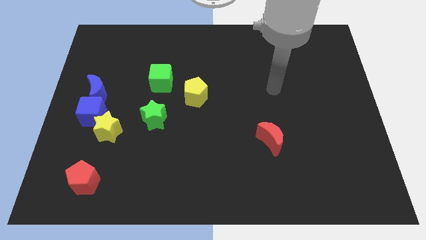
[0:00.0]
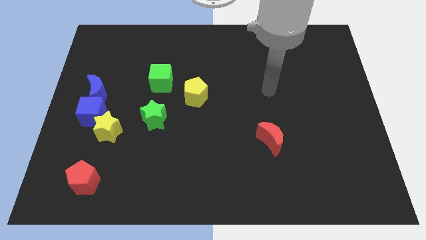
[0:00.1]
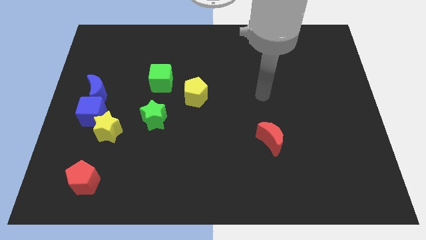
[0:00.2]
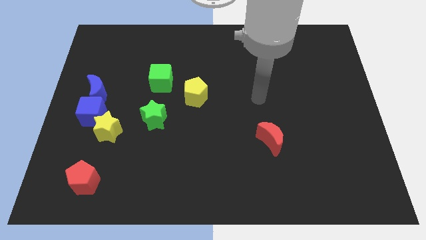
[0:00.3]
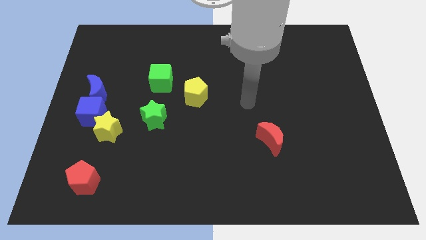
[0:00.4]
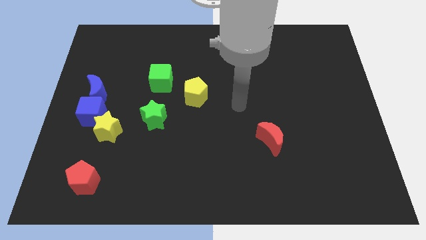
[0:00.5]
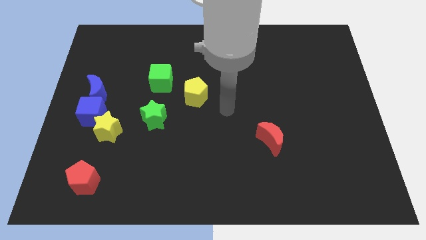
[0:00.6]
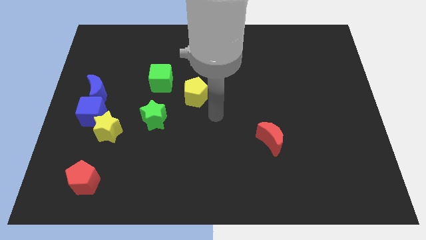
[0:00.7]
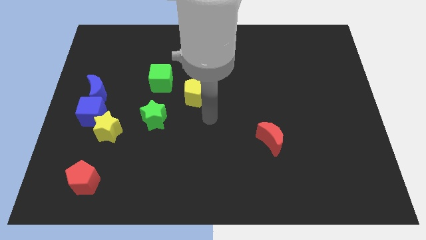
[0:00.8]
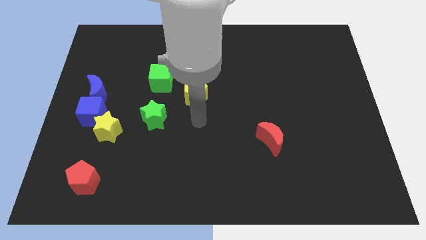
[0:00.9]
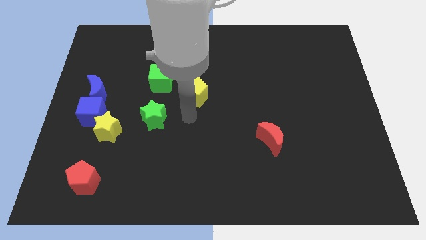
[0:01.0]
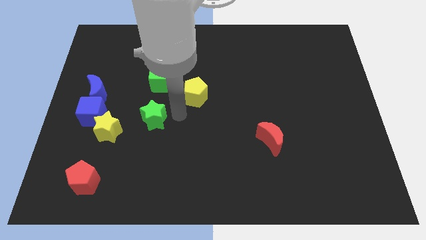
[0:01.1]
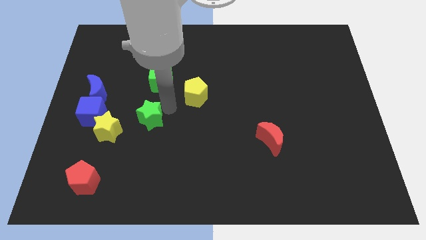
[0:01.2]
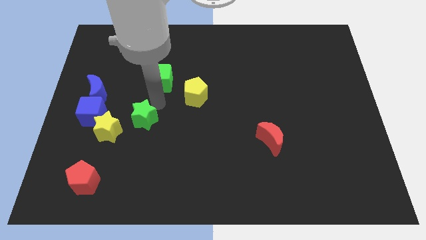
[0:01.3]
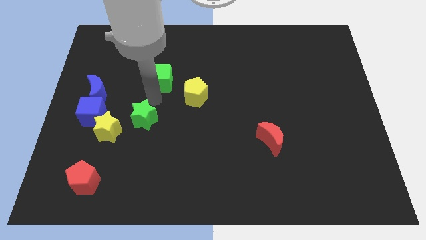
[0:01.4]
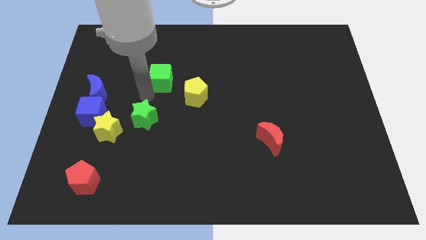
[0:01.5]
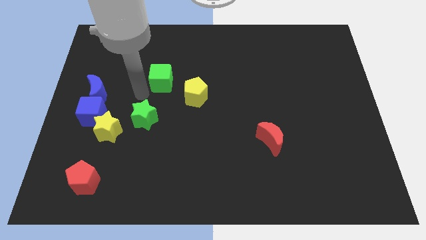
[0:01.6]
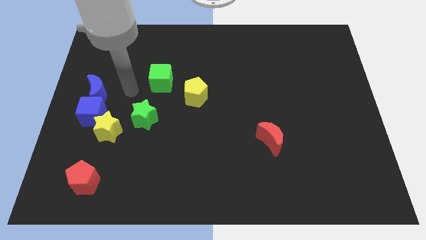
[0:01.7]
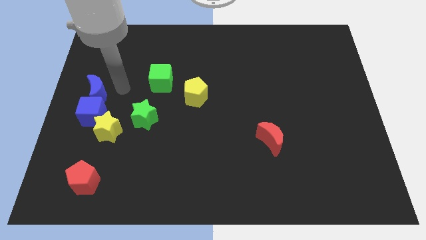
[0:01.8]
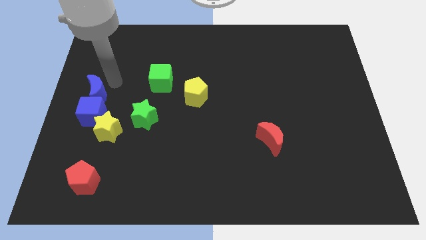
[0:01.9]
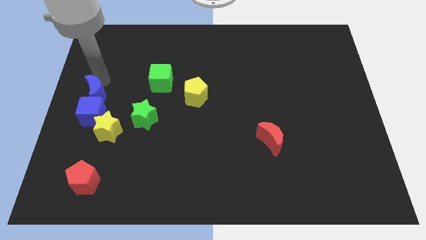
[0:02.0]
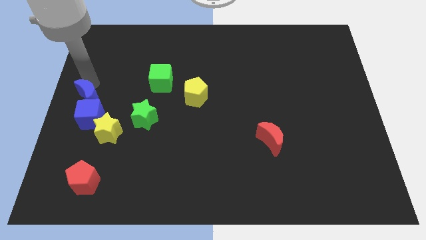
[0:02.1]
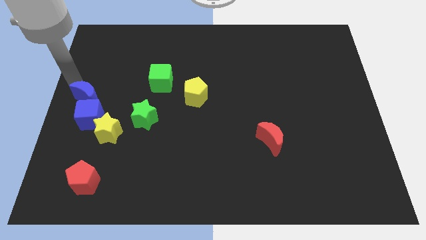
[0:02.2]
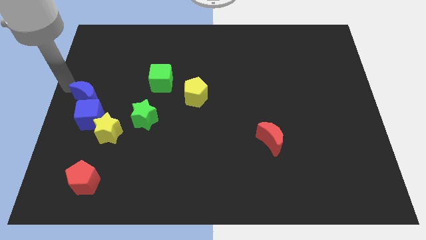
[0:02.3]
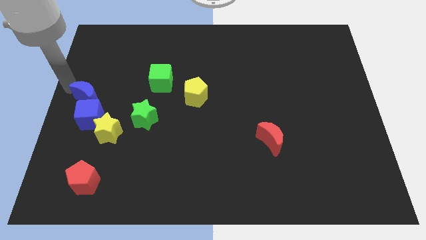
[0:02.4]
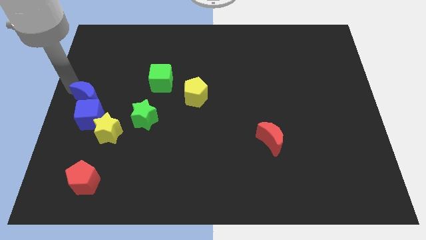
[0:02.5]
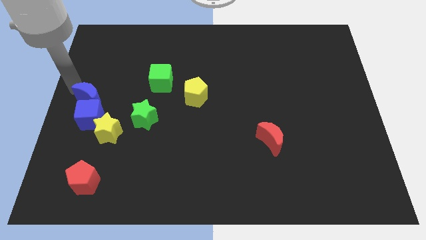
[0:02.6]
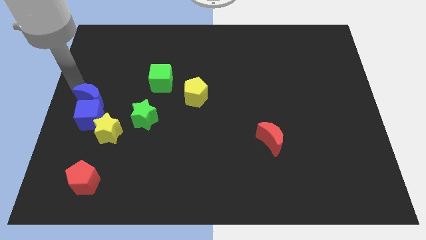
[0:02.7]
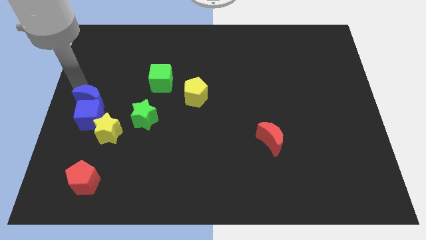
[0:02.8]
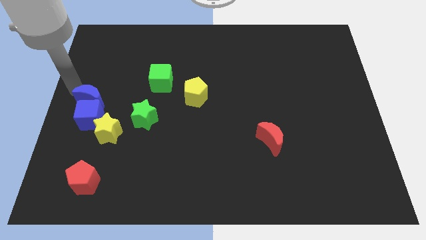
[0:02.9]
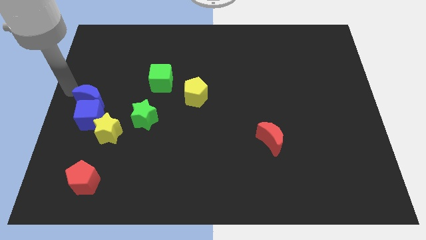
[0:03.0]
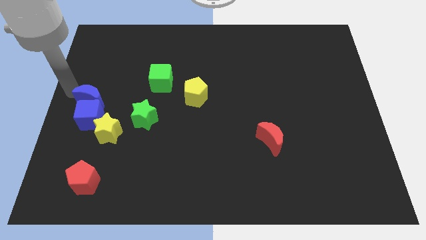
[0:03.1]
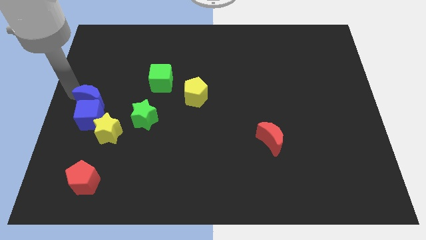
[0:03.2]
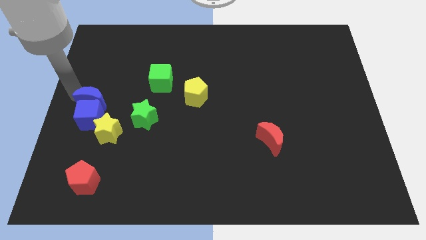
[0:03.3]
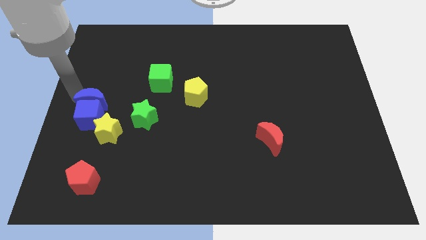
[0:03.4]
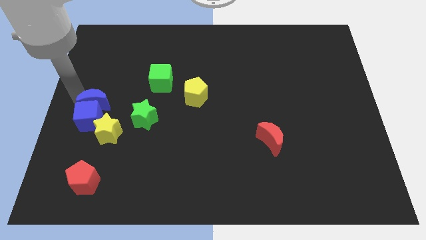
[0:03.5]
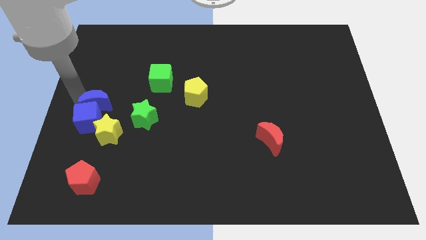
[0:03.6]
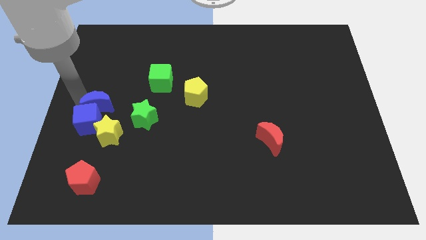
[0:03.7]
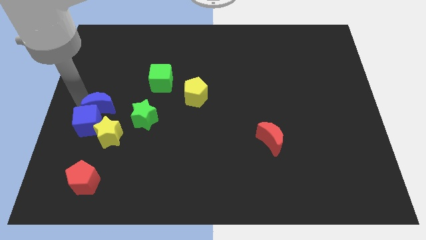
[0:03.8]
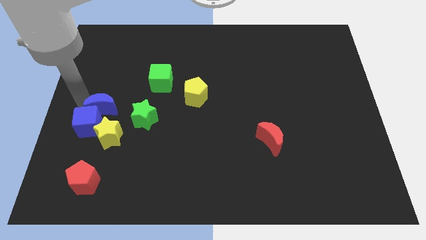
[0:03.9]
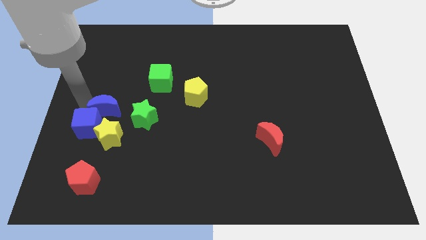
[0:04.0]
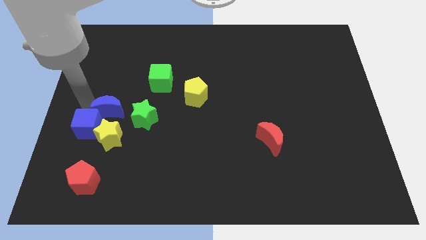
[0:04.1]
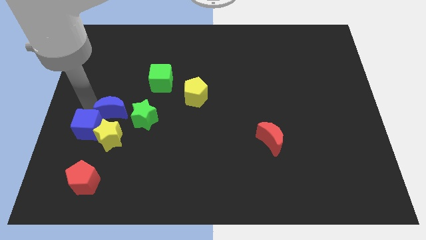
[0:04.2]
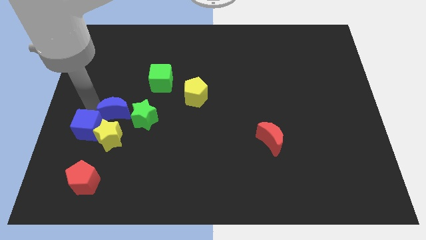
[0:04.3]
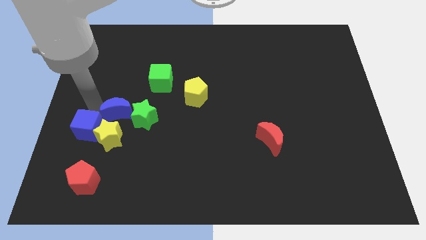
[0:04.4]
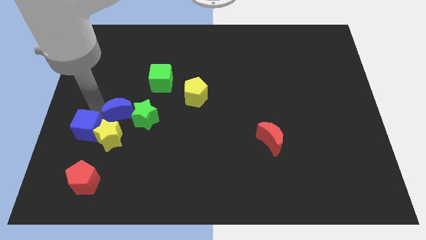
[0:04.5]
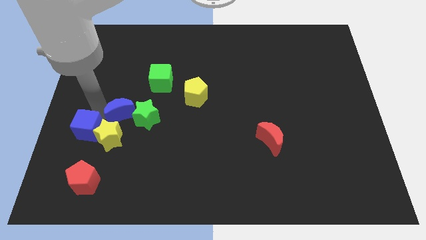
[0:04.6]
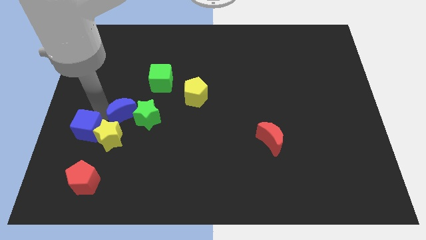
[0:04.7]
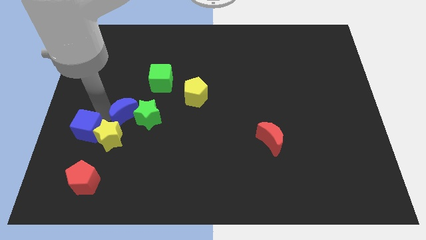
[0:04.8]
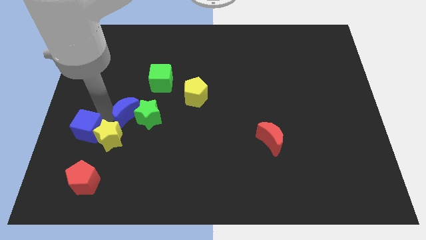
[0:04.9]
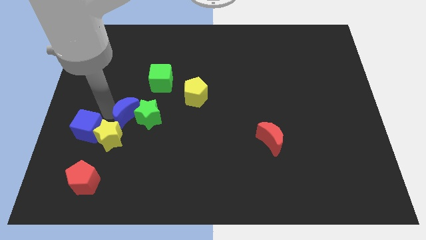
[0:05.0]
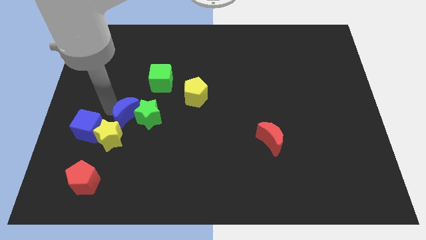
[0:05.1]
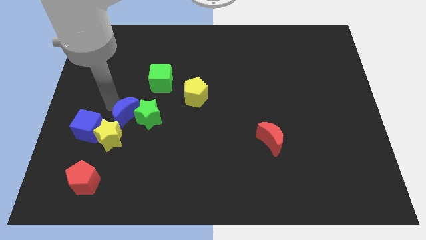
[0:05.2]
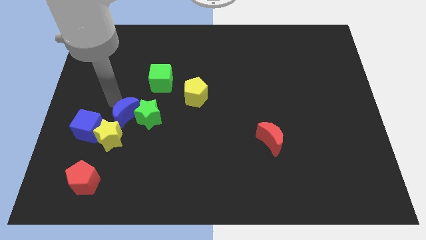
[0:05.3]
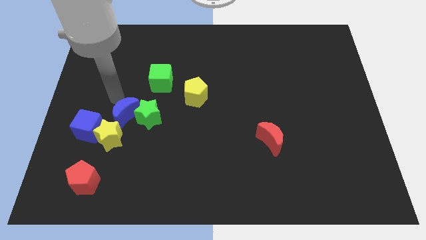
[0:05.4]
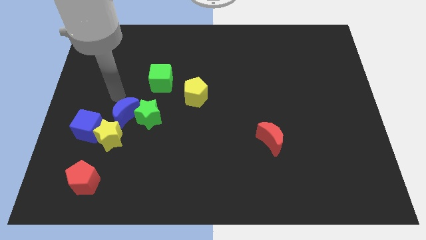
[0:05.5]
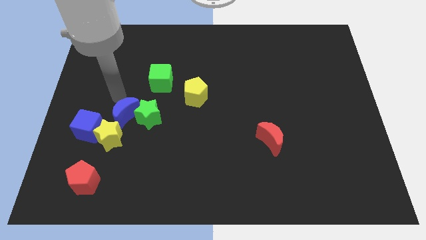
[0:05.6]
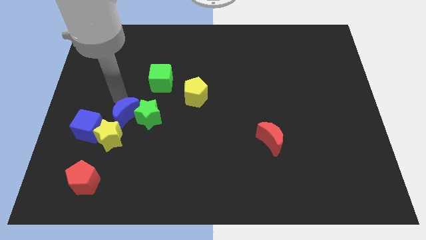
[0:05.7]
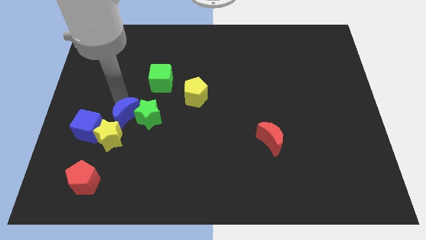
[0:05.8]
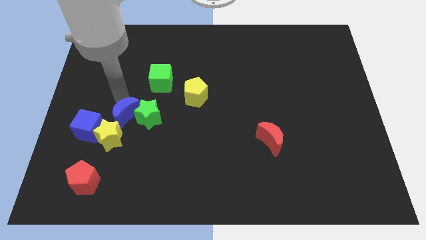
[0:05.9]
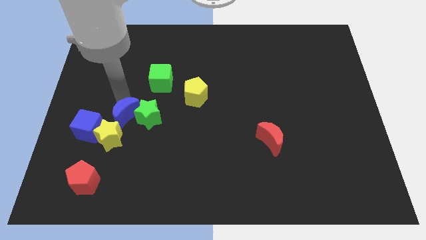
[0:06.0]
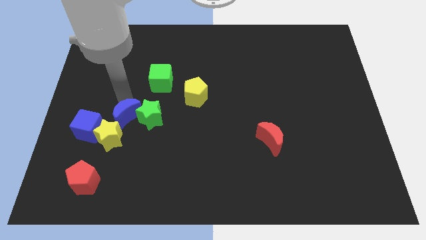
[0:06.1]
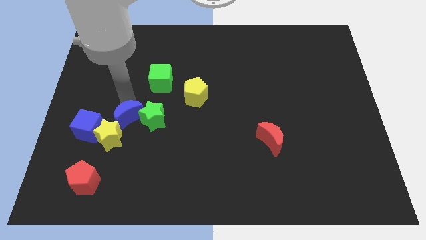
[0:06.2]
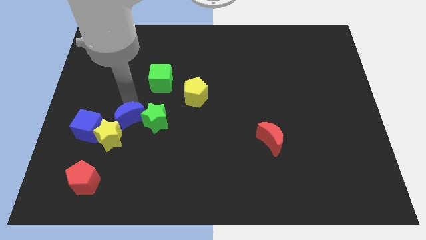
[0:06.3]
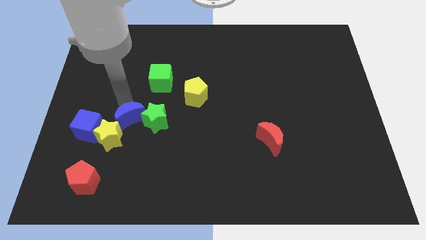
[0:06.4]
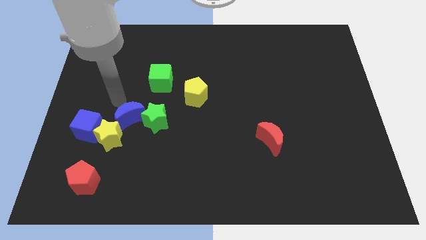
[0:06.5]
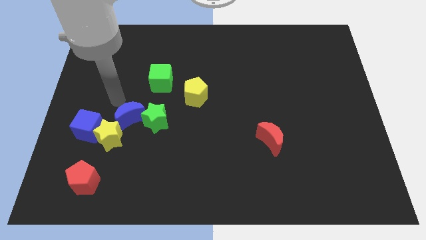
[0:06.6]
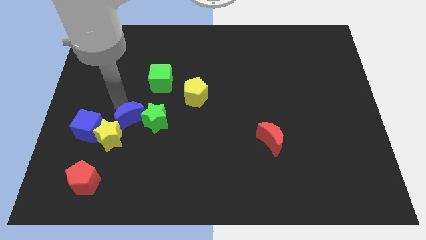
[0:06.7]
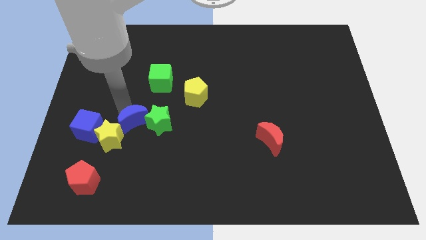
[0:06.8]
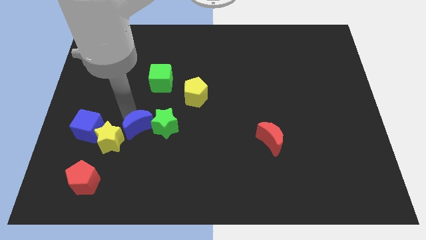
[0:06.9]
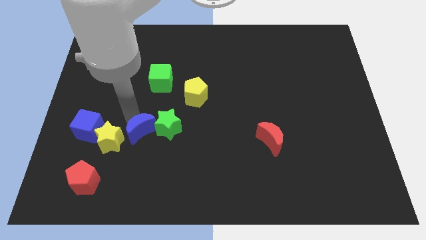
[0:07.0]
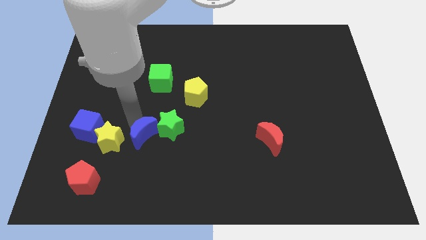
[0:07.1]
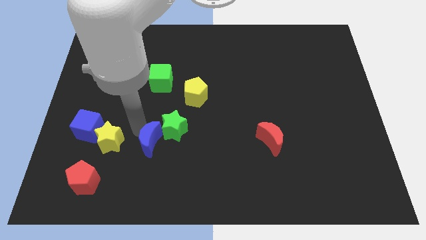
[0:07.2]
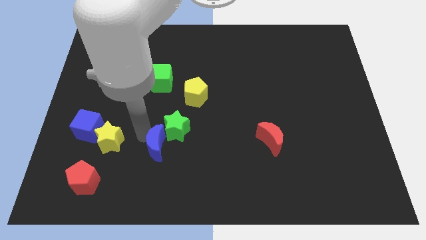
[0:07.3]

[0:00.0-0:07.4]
slide the blue moon diagonally downwards and right

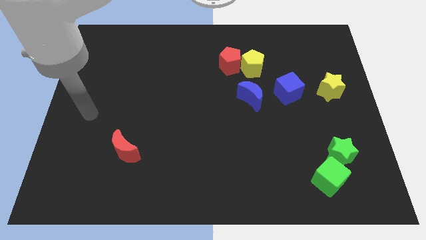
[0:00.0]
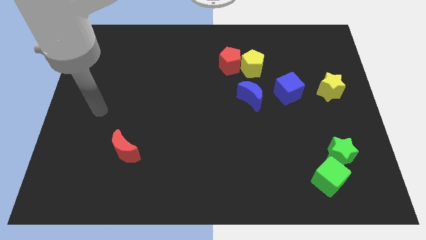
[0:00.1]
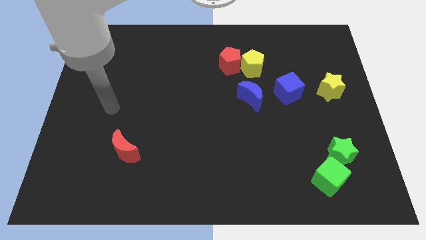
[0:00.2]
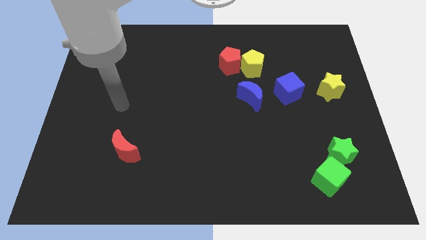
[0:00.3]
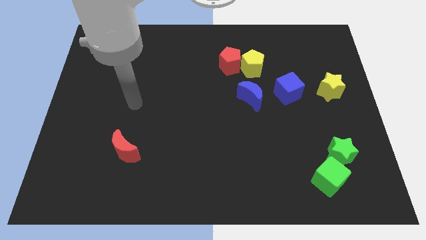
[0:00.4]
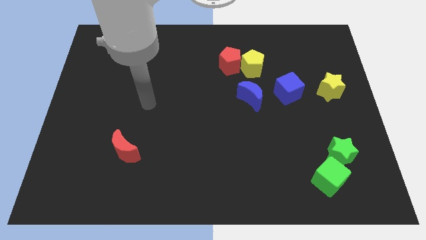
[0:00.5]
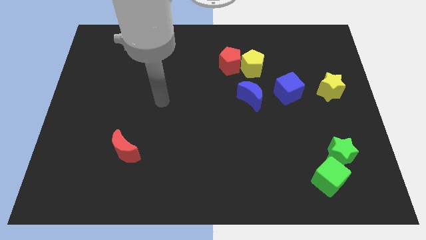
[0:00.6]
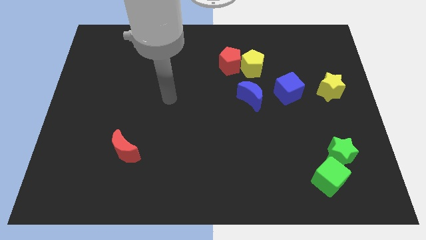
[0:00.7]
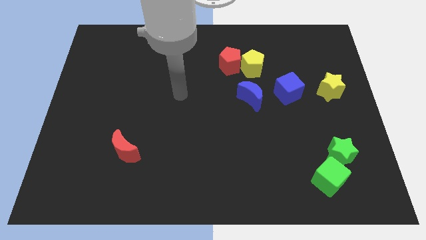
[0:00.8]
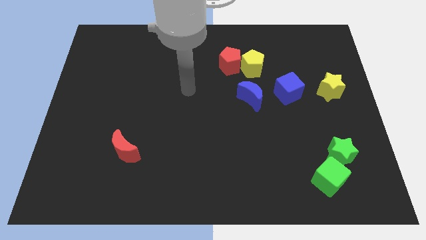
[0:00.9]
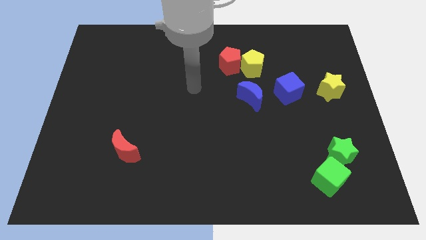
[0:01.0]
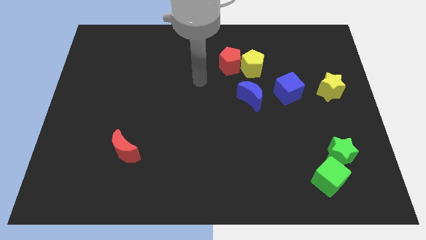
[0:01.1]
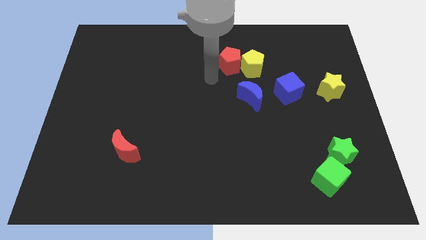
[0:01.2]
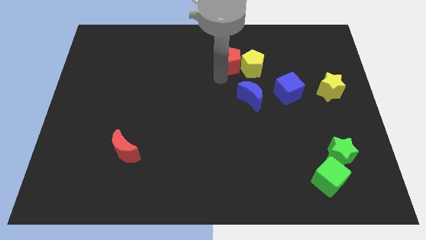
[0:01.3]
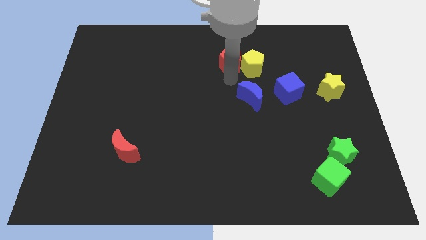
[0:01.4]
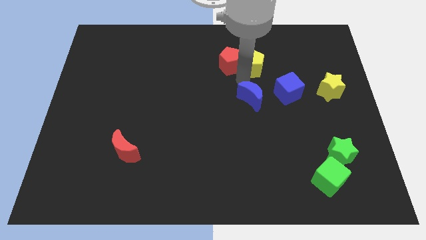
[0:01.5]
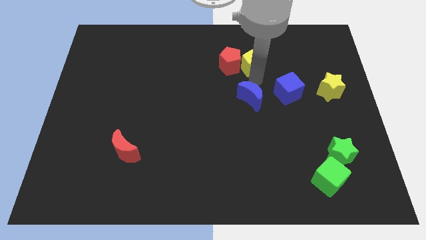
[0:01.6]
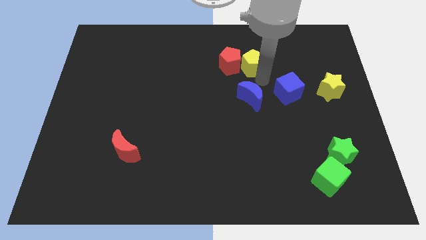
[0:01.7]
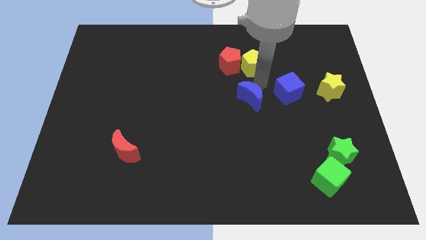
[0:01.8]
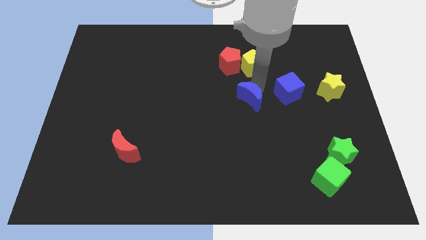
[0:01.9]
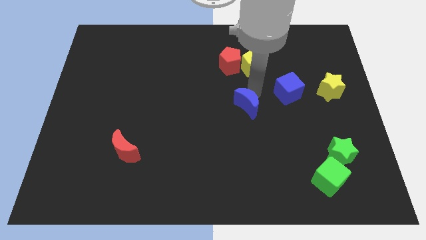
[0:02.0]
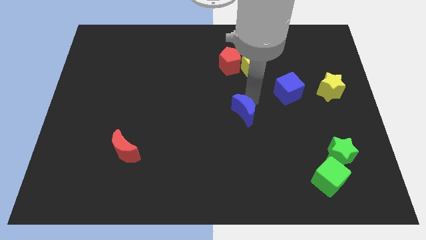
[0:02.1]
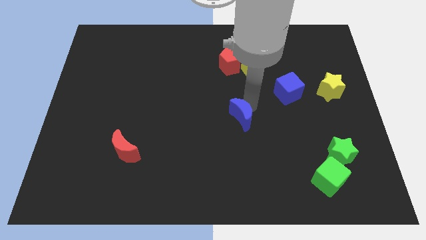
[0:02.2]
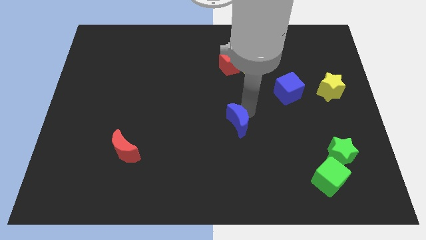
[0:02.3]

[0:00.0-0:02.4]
slide the blue moon somewhat down and to the left diagonally
